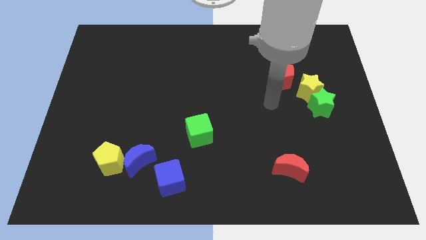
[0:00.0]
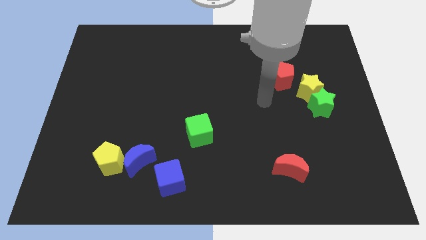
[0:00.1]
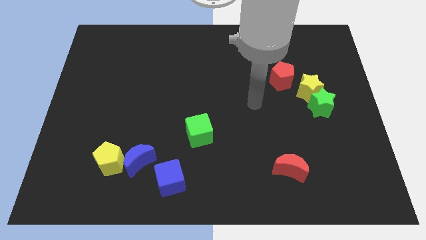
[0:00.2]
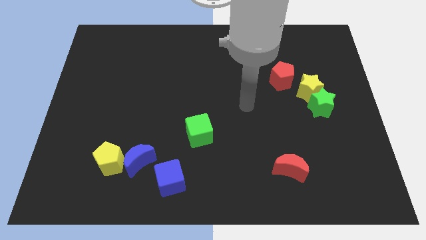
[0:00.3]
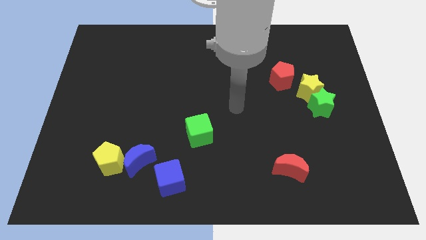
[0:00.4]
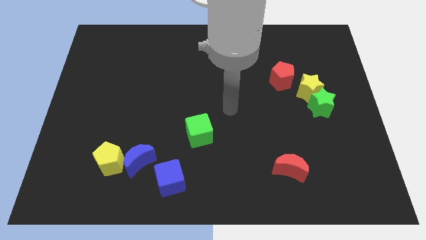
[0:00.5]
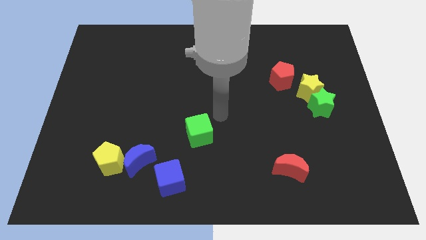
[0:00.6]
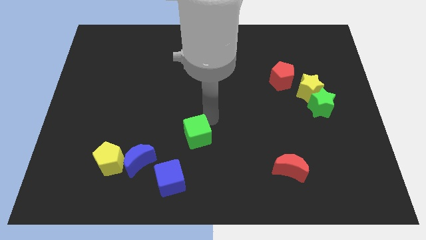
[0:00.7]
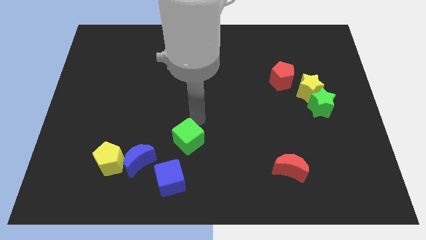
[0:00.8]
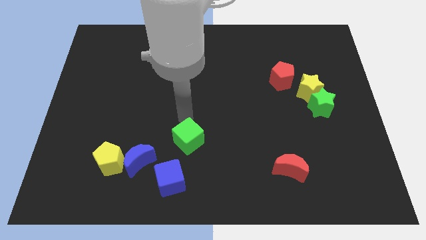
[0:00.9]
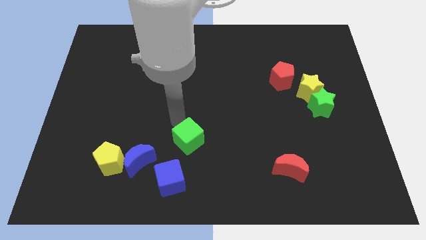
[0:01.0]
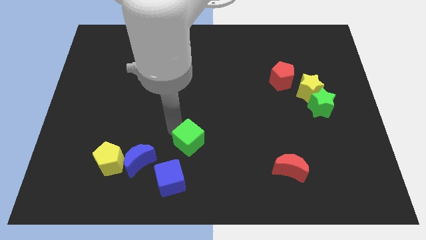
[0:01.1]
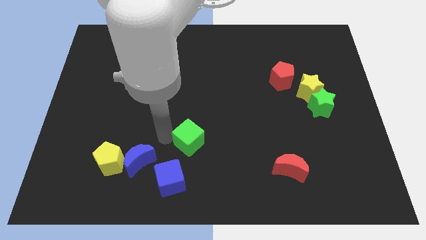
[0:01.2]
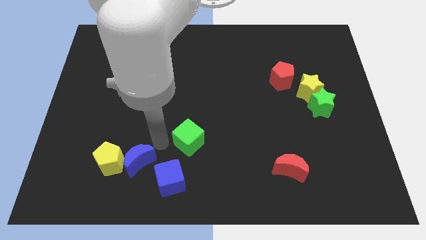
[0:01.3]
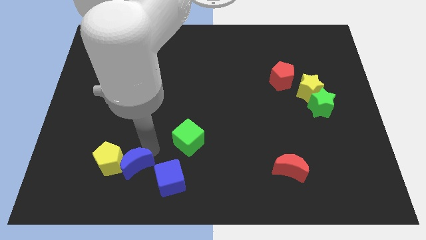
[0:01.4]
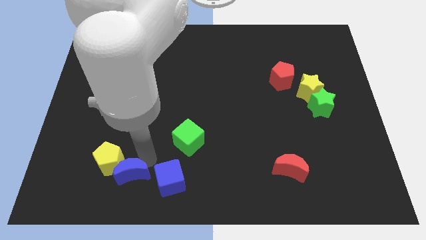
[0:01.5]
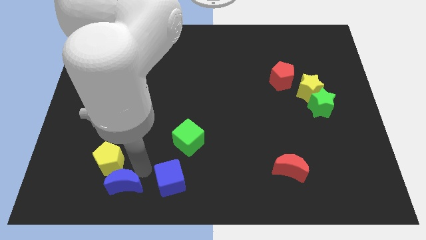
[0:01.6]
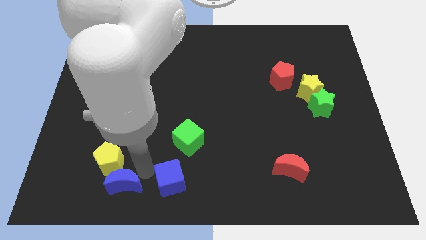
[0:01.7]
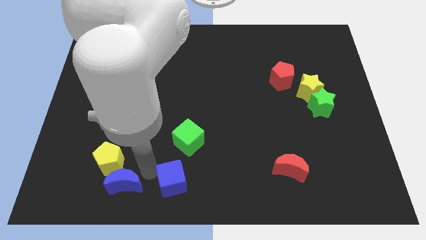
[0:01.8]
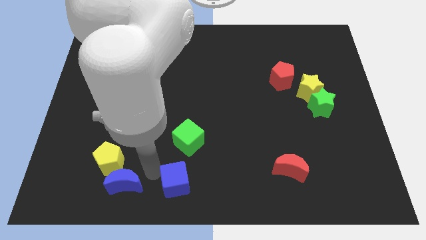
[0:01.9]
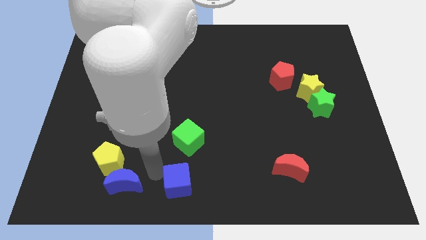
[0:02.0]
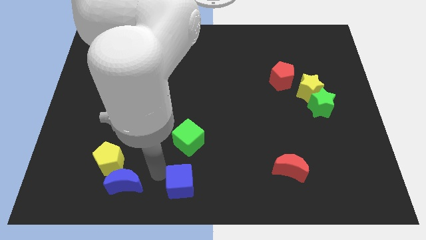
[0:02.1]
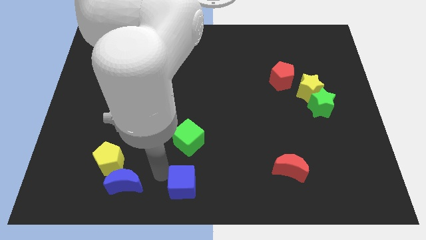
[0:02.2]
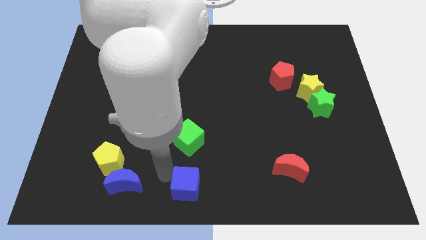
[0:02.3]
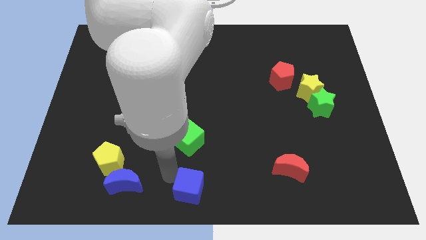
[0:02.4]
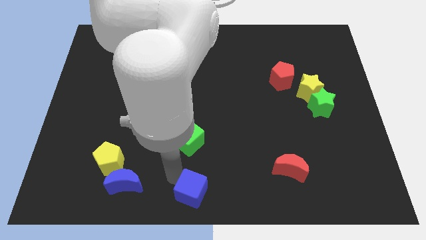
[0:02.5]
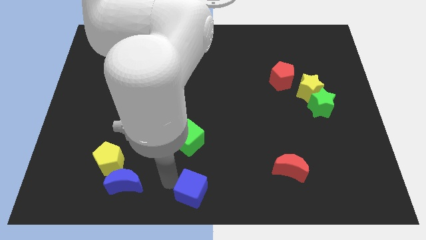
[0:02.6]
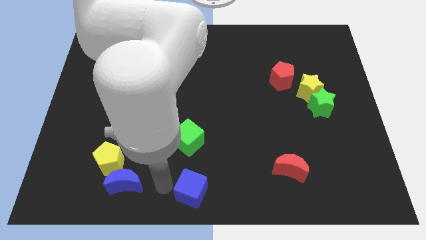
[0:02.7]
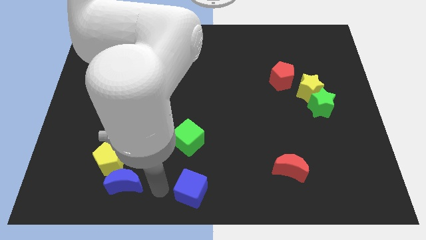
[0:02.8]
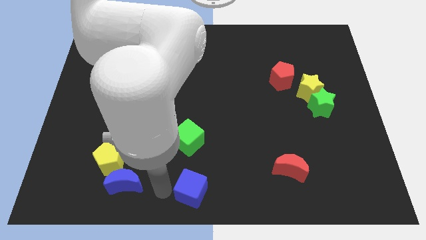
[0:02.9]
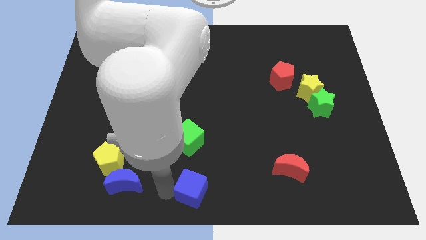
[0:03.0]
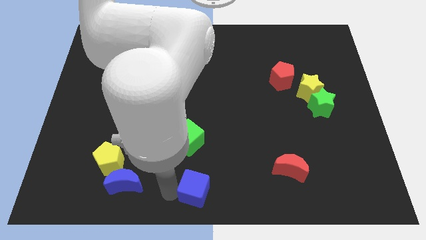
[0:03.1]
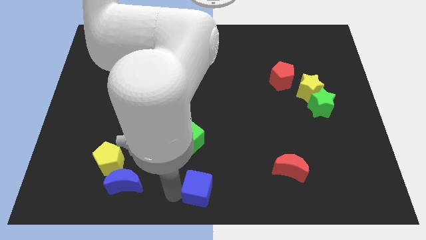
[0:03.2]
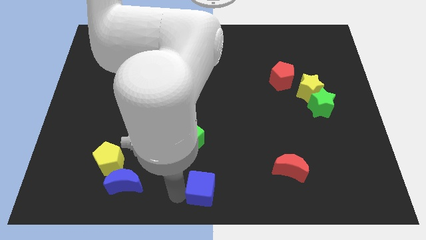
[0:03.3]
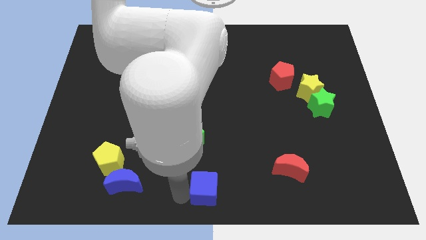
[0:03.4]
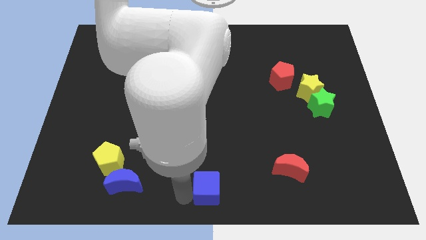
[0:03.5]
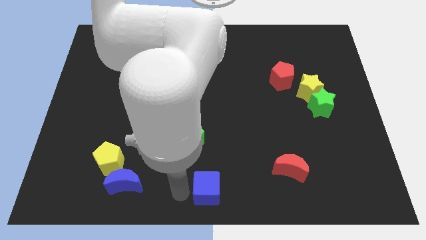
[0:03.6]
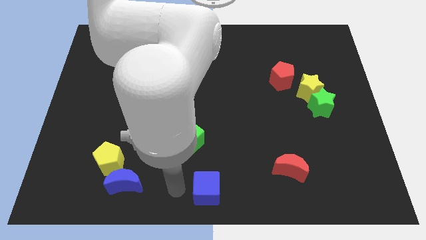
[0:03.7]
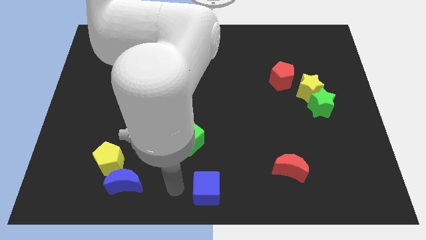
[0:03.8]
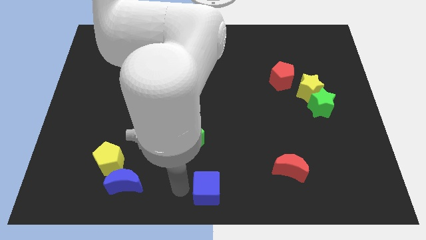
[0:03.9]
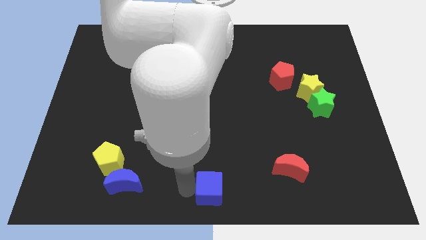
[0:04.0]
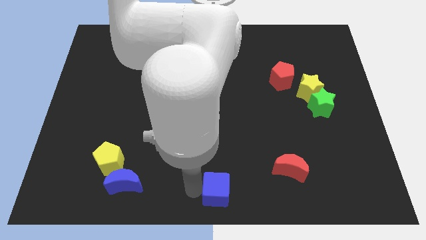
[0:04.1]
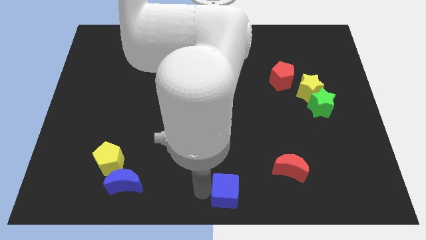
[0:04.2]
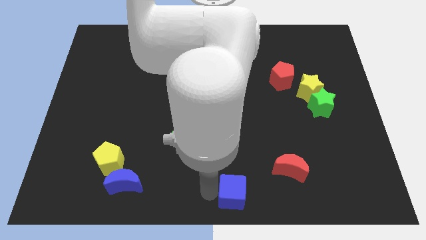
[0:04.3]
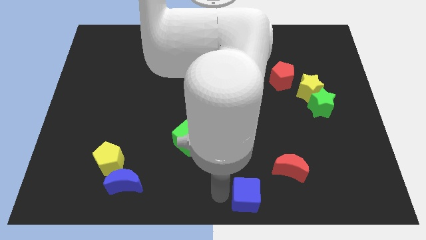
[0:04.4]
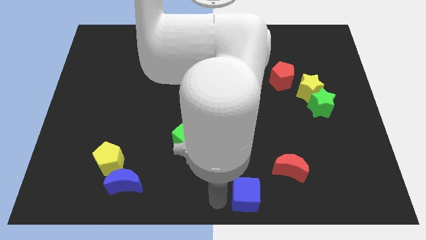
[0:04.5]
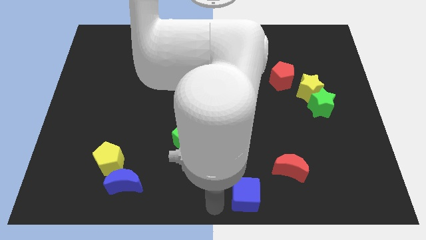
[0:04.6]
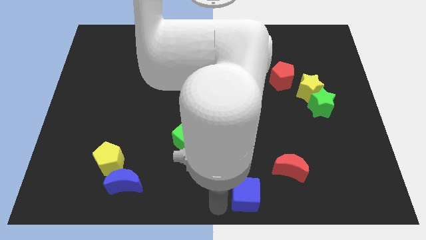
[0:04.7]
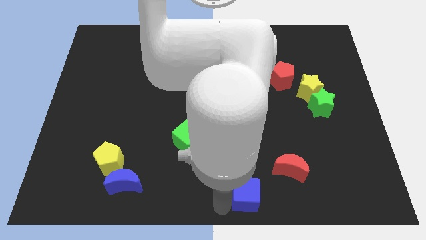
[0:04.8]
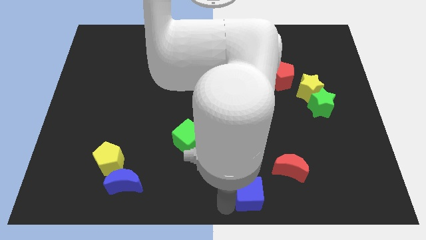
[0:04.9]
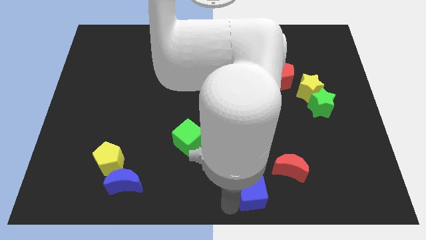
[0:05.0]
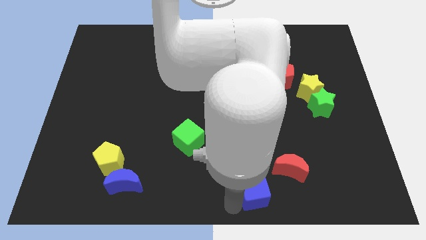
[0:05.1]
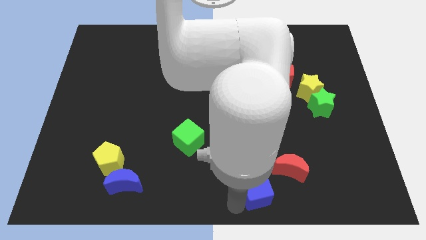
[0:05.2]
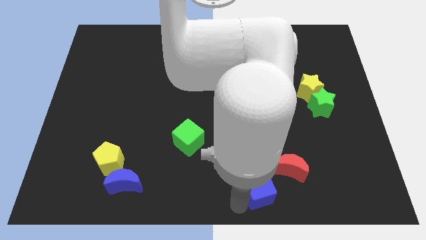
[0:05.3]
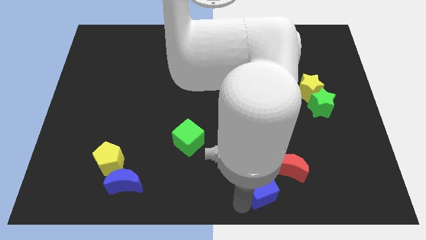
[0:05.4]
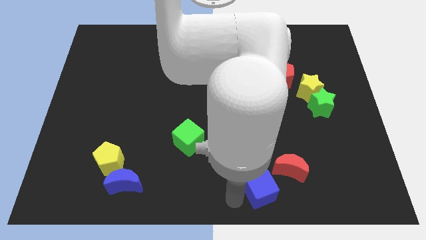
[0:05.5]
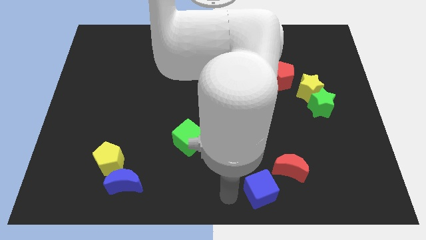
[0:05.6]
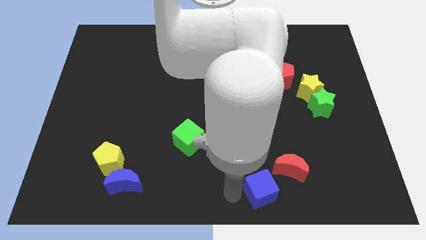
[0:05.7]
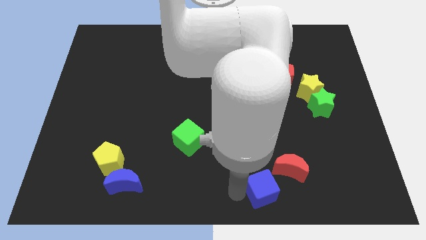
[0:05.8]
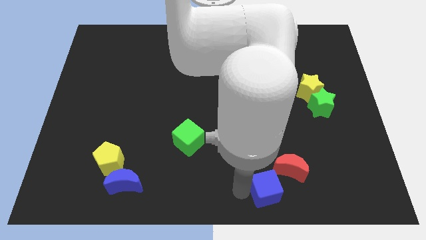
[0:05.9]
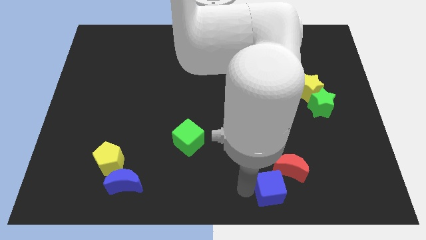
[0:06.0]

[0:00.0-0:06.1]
slide the blue cube to the right

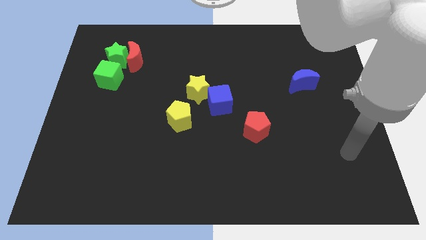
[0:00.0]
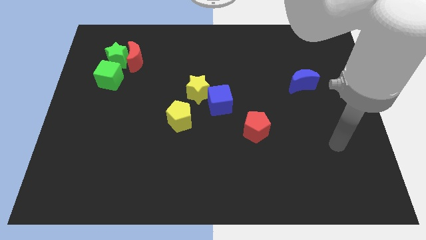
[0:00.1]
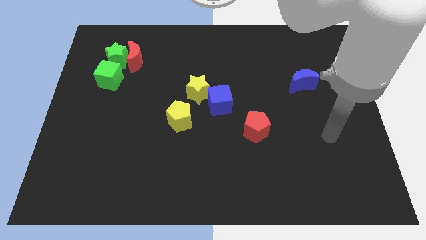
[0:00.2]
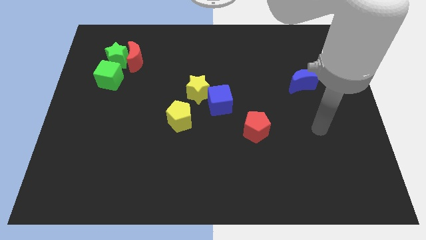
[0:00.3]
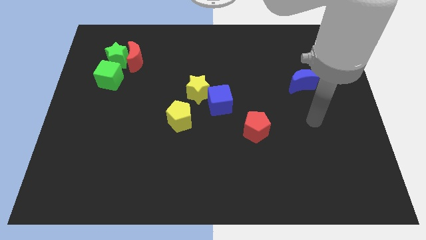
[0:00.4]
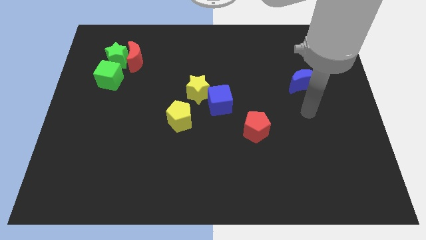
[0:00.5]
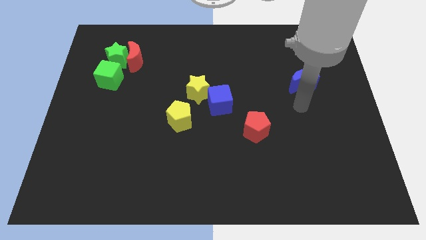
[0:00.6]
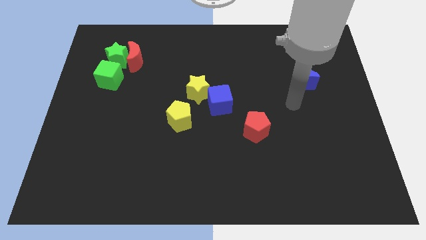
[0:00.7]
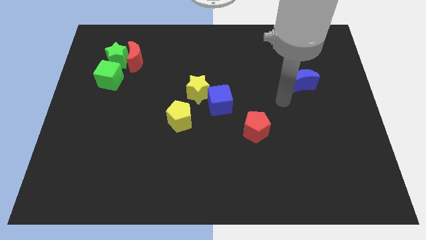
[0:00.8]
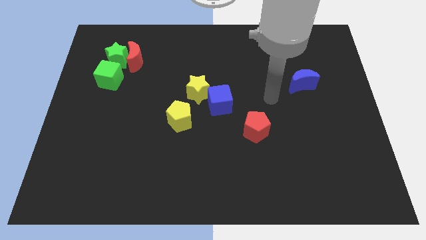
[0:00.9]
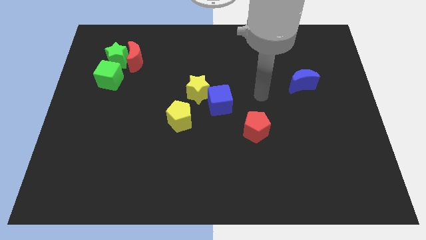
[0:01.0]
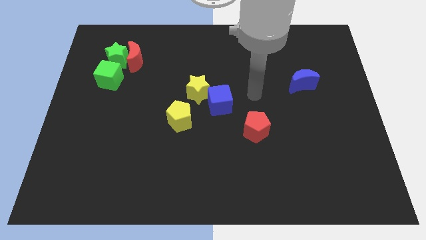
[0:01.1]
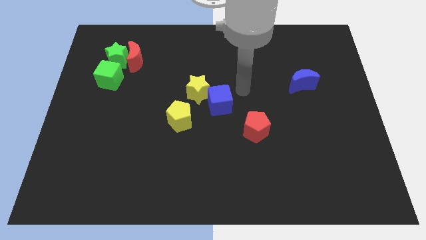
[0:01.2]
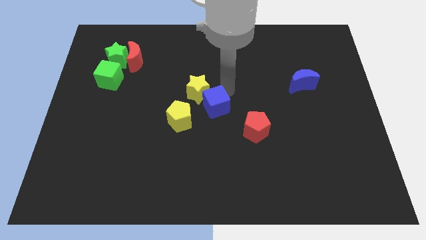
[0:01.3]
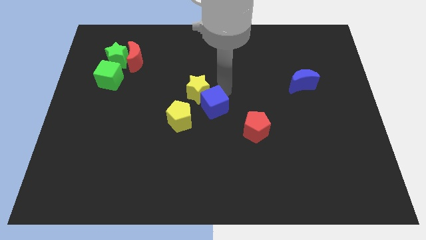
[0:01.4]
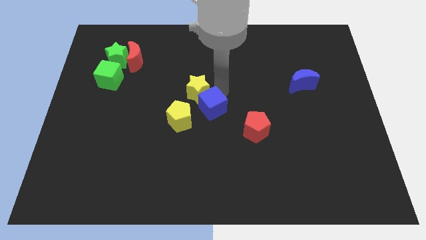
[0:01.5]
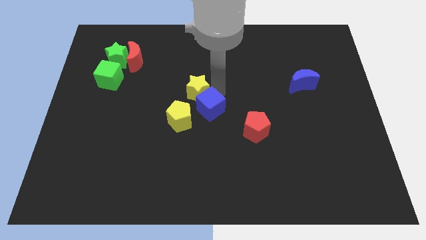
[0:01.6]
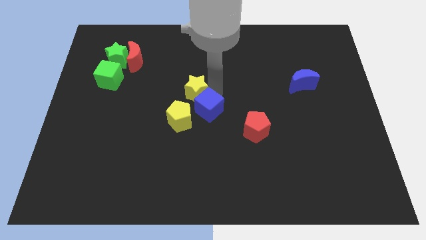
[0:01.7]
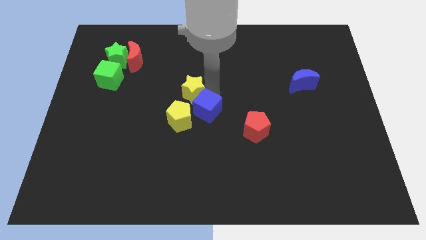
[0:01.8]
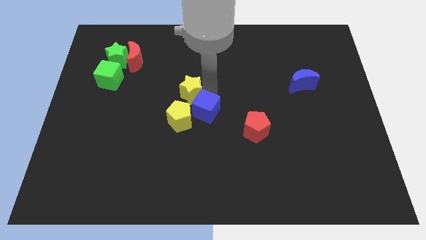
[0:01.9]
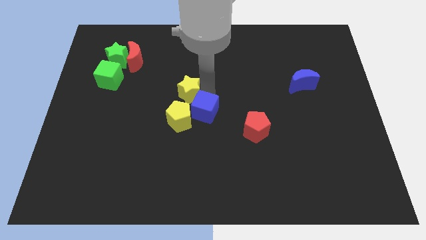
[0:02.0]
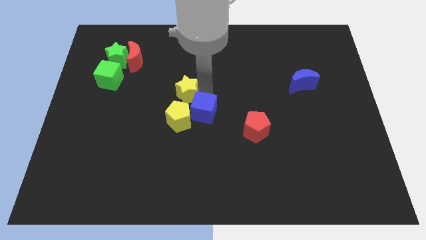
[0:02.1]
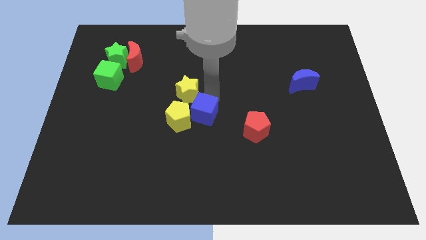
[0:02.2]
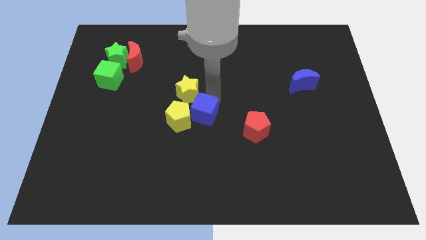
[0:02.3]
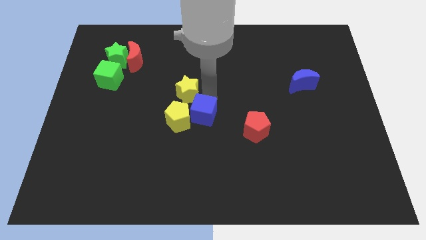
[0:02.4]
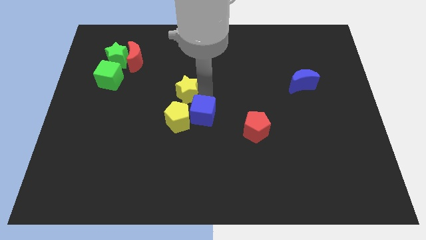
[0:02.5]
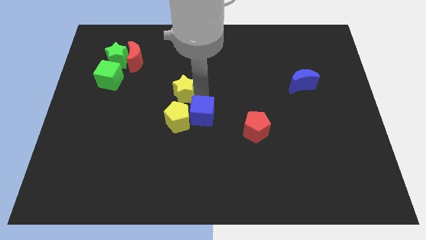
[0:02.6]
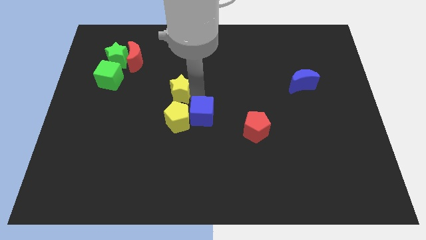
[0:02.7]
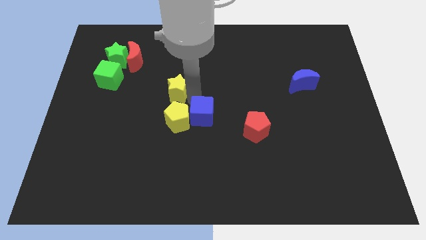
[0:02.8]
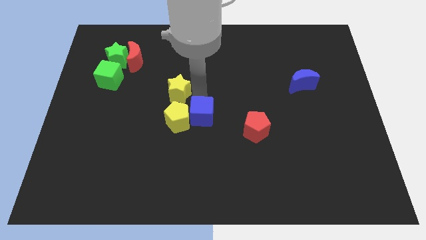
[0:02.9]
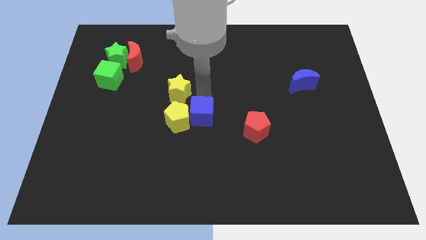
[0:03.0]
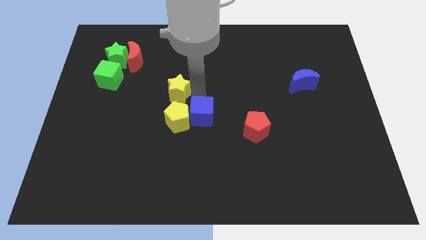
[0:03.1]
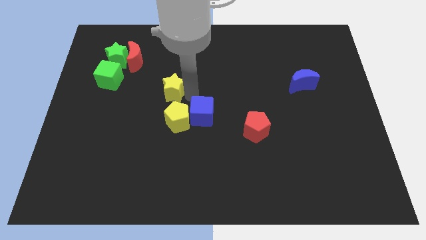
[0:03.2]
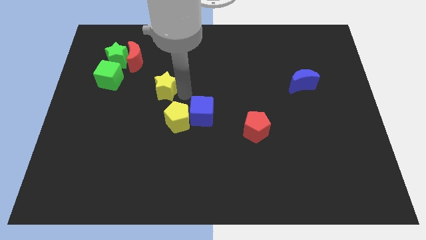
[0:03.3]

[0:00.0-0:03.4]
slide the yellow star a little bit to the left
